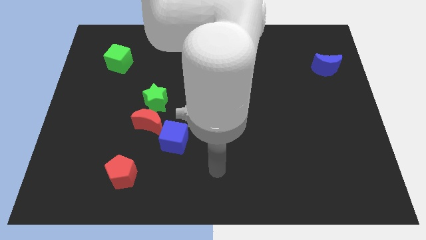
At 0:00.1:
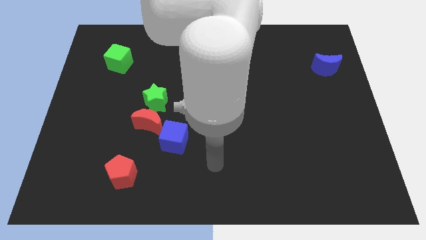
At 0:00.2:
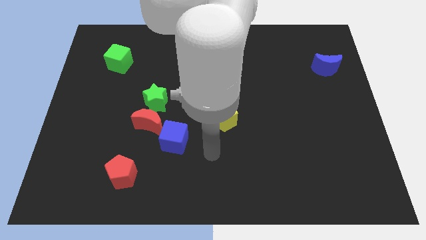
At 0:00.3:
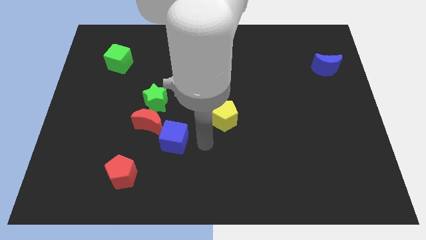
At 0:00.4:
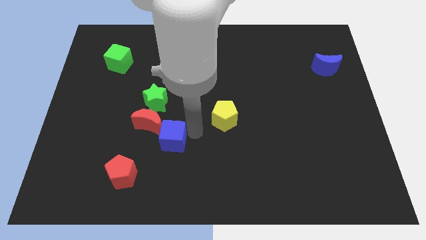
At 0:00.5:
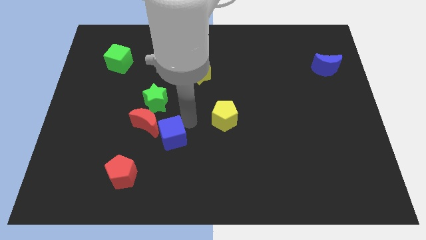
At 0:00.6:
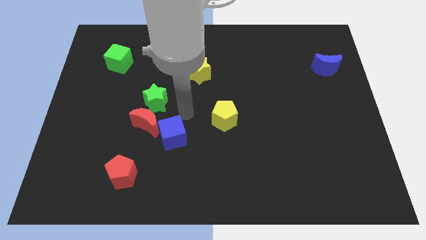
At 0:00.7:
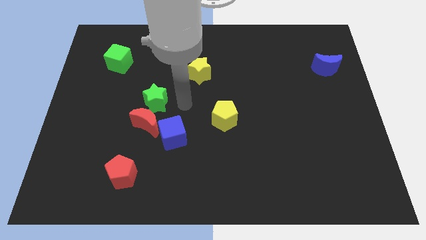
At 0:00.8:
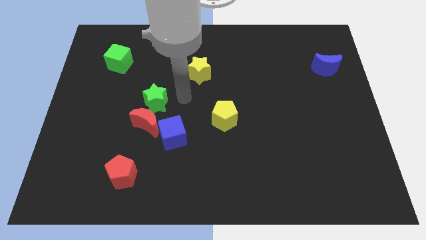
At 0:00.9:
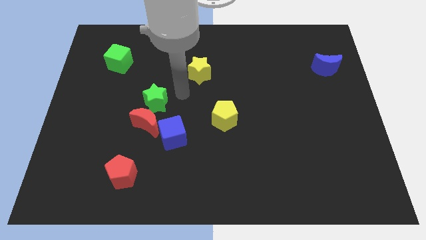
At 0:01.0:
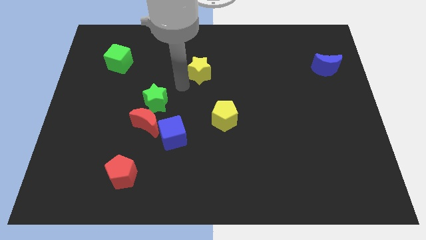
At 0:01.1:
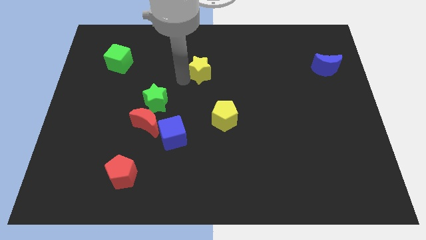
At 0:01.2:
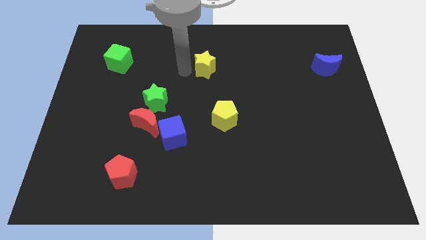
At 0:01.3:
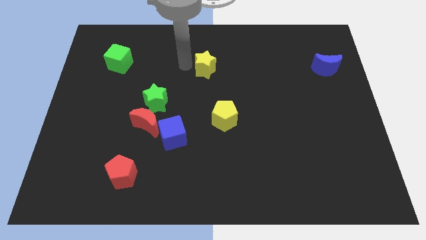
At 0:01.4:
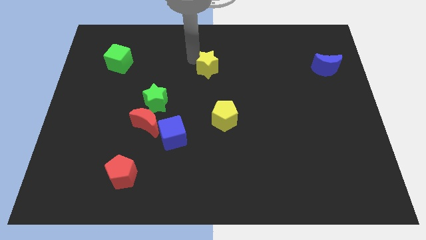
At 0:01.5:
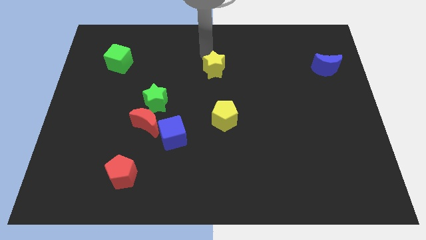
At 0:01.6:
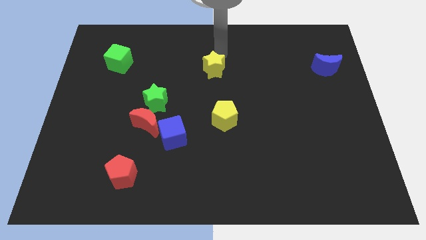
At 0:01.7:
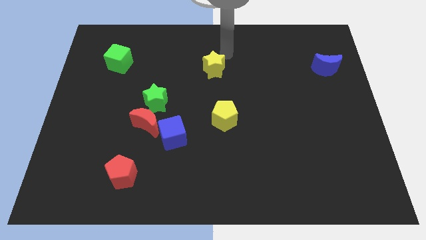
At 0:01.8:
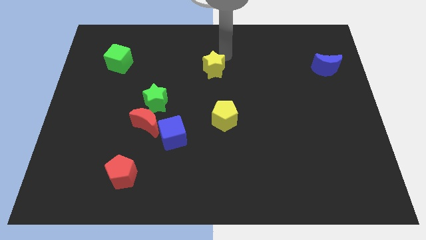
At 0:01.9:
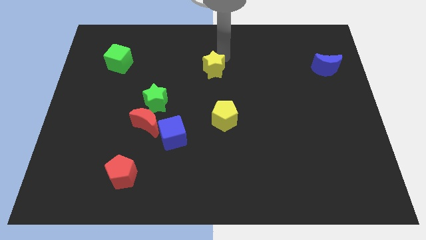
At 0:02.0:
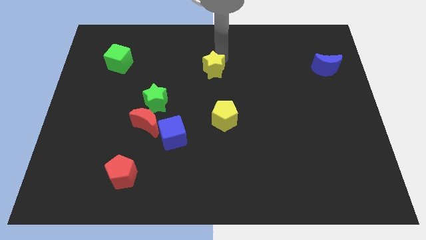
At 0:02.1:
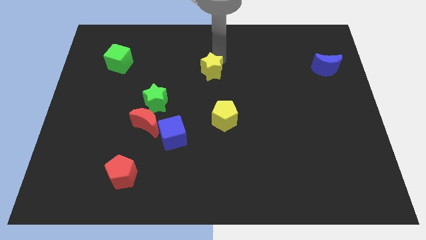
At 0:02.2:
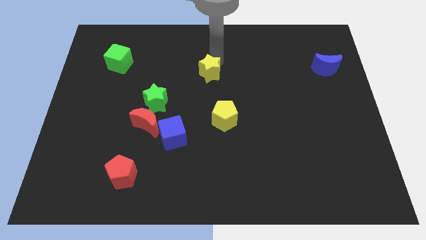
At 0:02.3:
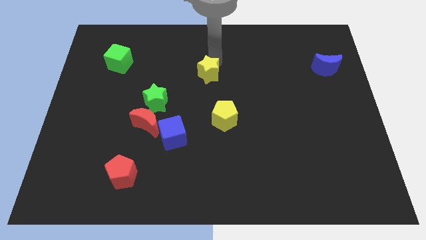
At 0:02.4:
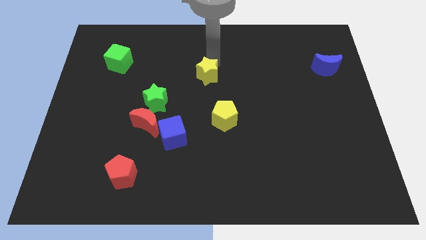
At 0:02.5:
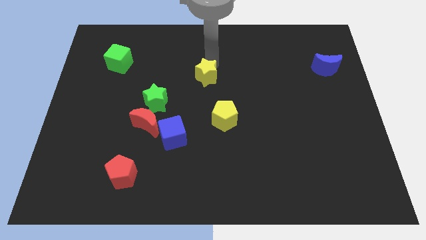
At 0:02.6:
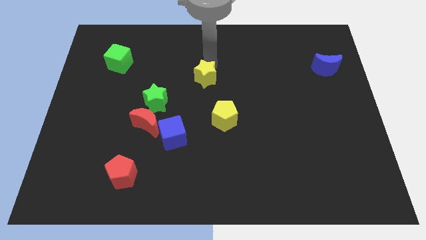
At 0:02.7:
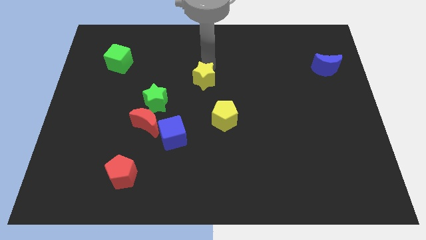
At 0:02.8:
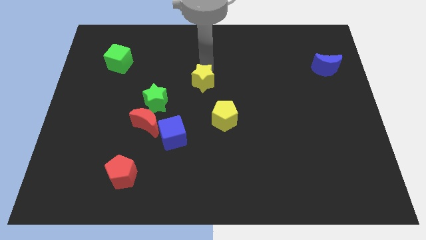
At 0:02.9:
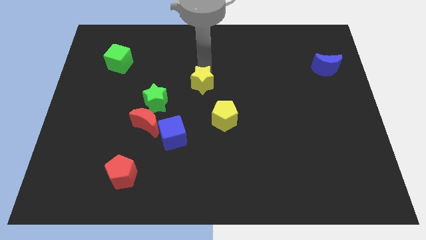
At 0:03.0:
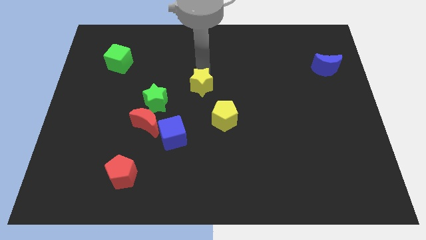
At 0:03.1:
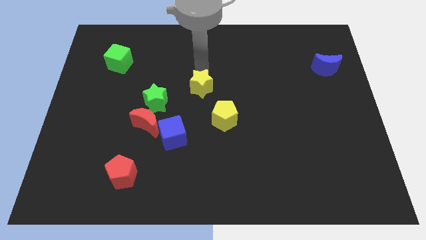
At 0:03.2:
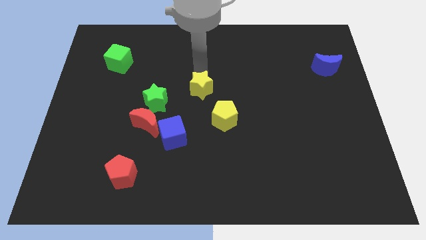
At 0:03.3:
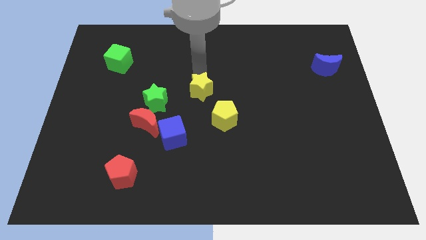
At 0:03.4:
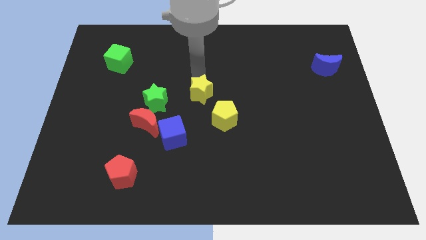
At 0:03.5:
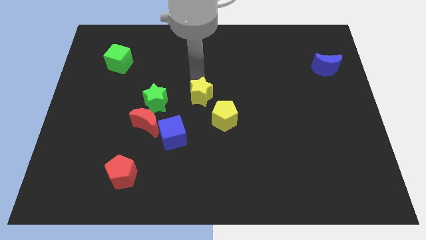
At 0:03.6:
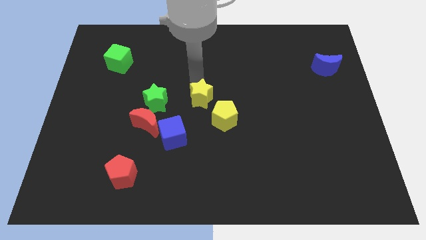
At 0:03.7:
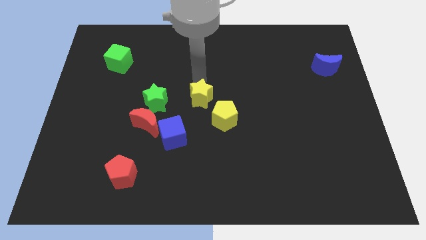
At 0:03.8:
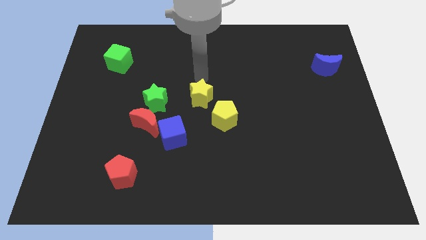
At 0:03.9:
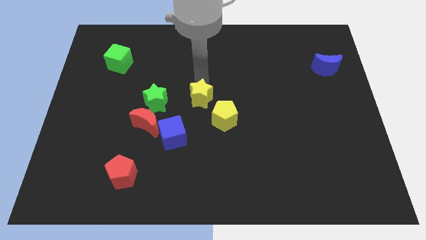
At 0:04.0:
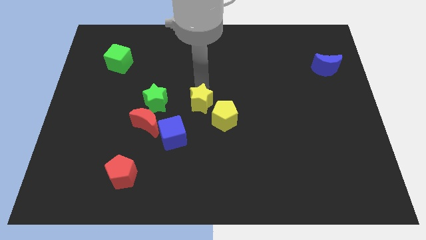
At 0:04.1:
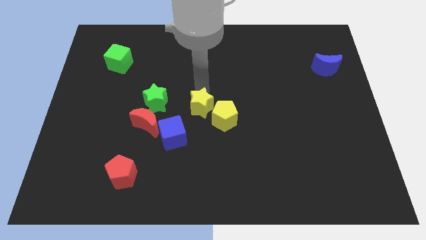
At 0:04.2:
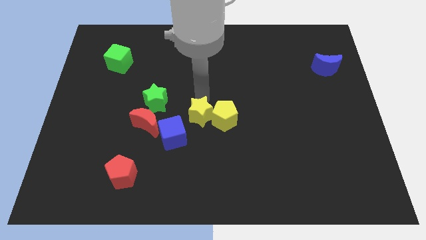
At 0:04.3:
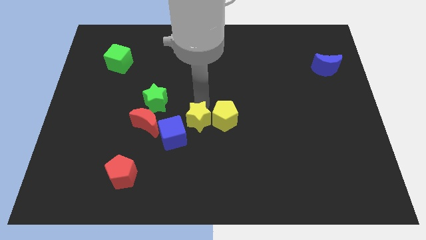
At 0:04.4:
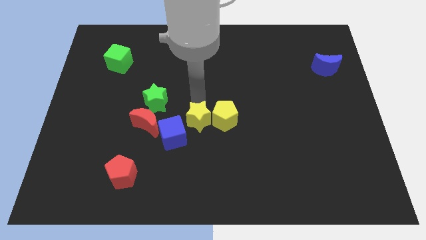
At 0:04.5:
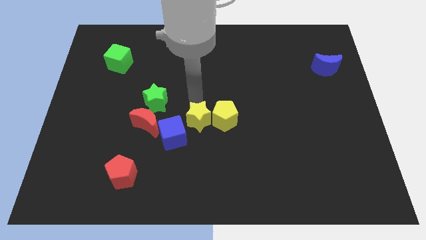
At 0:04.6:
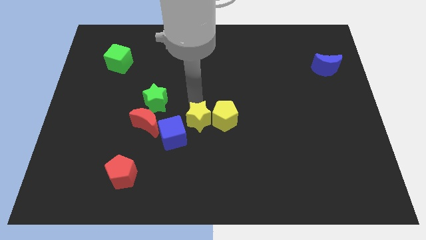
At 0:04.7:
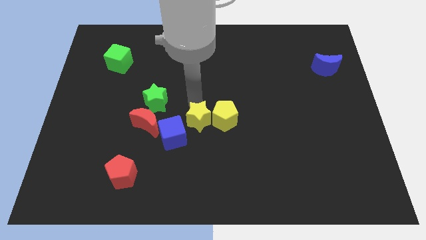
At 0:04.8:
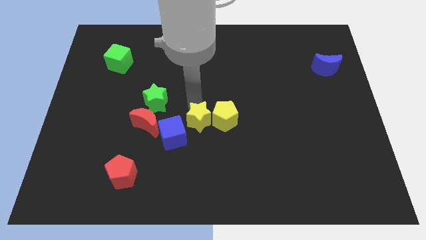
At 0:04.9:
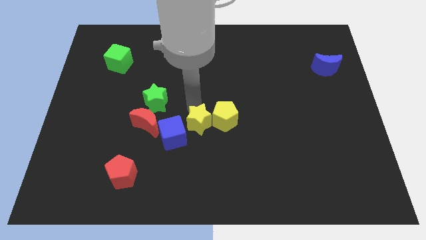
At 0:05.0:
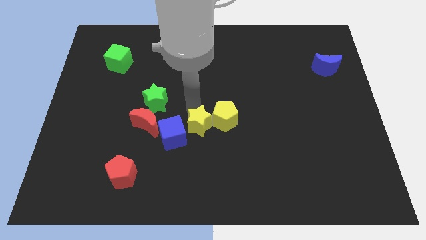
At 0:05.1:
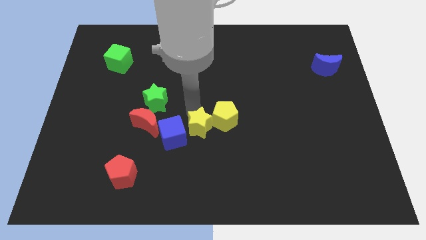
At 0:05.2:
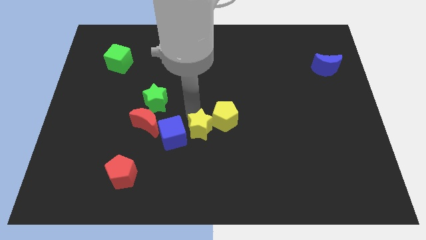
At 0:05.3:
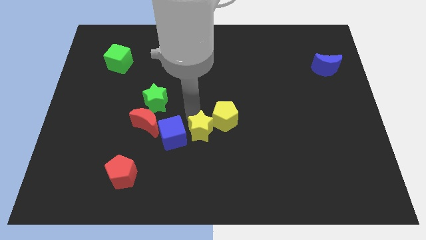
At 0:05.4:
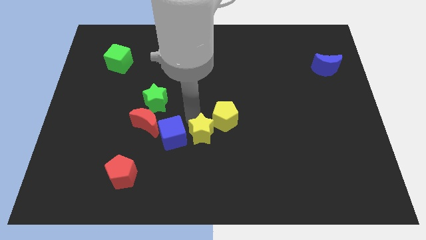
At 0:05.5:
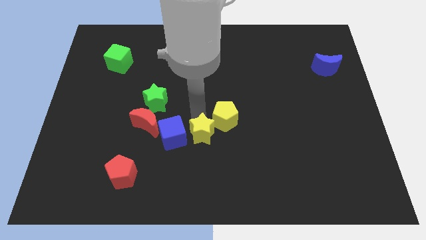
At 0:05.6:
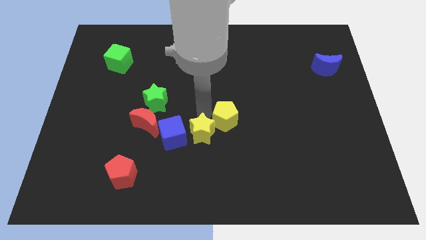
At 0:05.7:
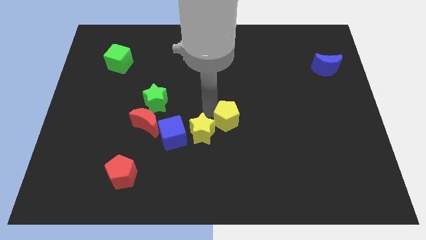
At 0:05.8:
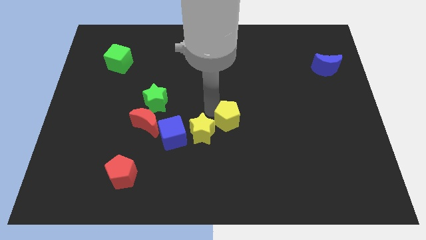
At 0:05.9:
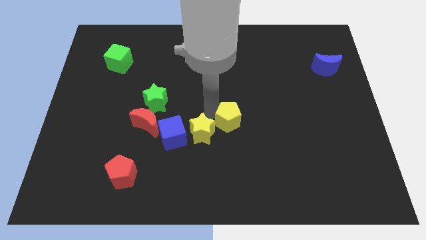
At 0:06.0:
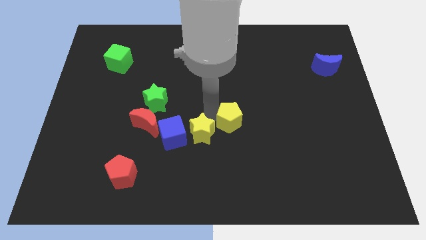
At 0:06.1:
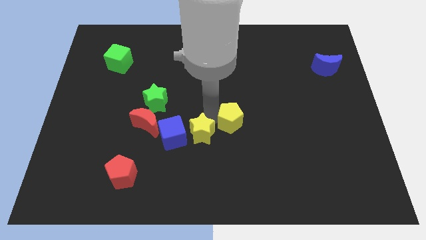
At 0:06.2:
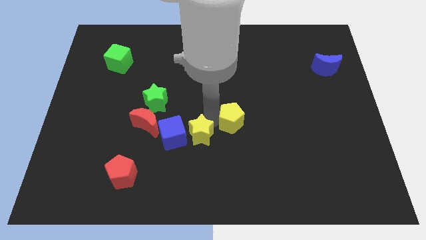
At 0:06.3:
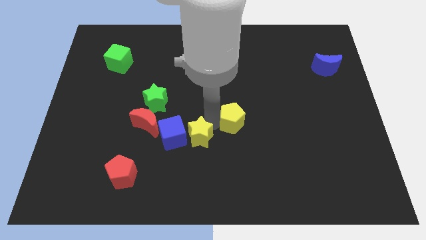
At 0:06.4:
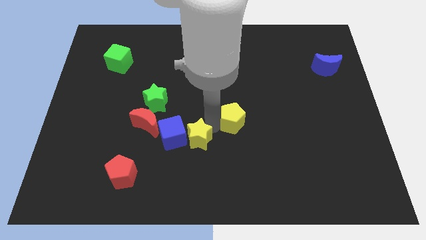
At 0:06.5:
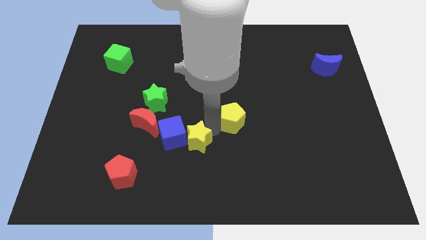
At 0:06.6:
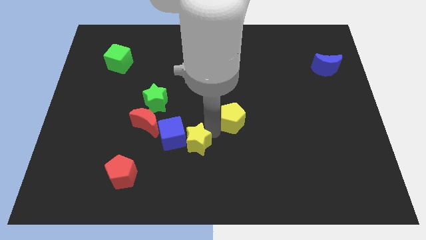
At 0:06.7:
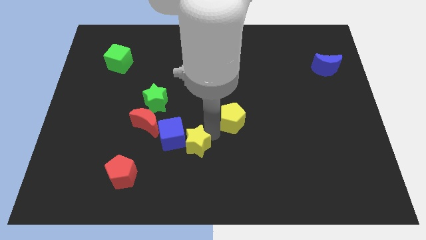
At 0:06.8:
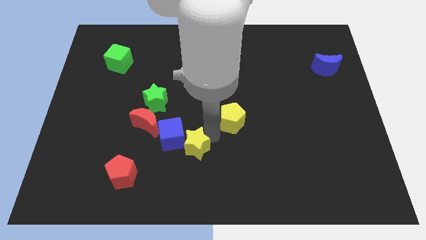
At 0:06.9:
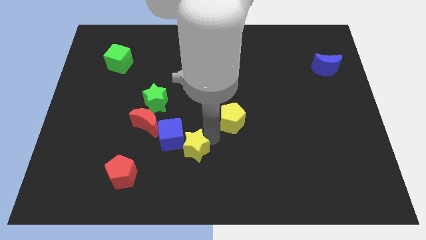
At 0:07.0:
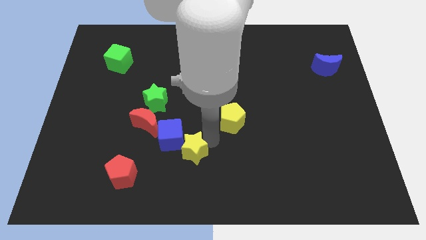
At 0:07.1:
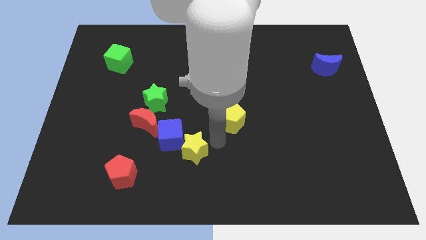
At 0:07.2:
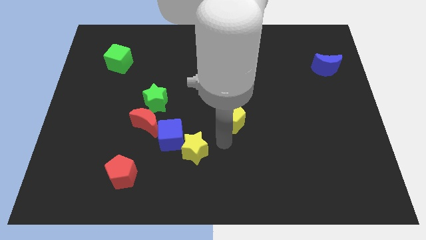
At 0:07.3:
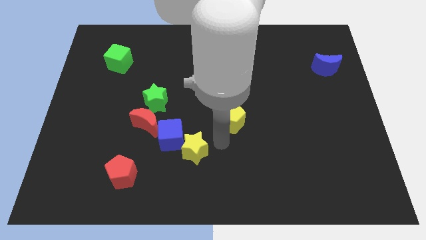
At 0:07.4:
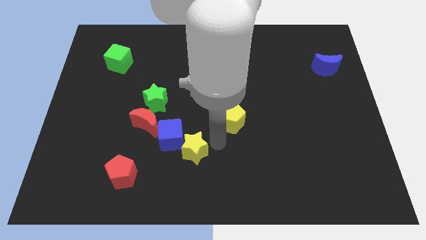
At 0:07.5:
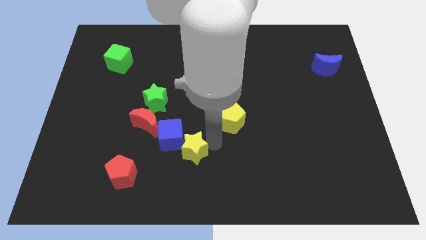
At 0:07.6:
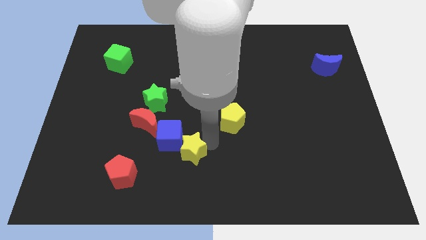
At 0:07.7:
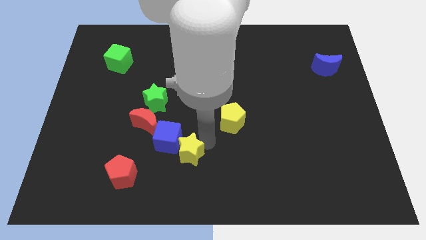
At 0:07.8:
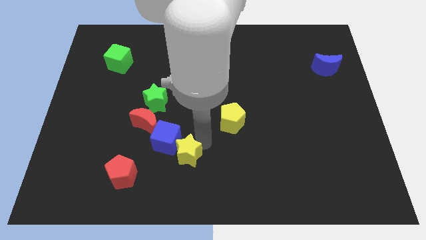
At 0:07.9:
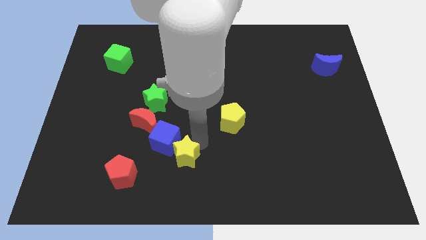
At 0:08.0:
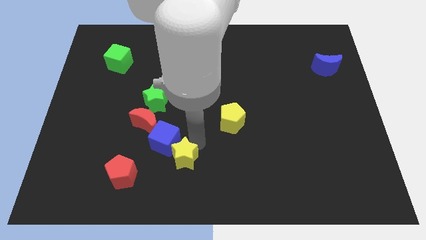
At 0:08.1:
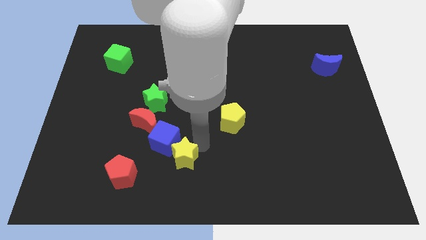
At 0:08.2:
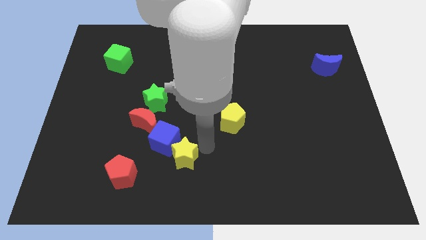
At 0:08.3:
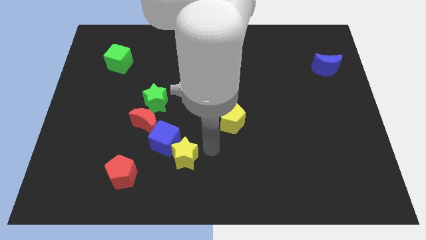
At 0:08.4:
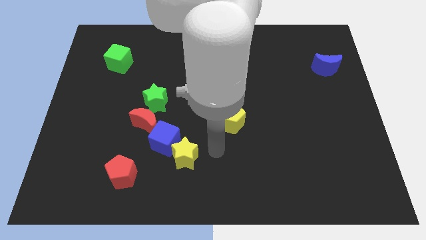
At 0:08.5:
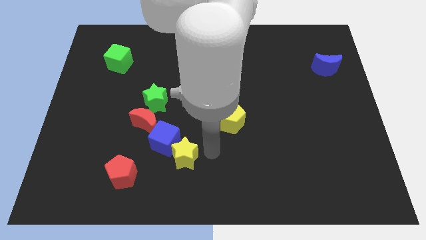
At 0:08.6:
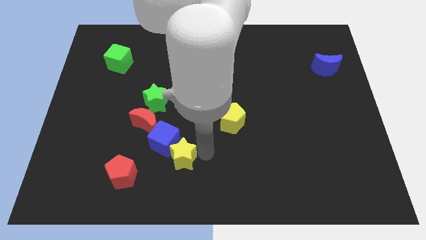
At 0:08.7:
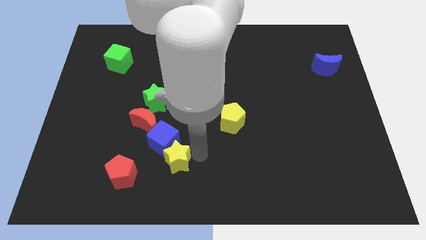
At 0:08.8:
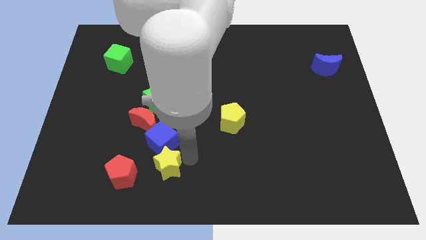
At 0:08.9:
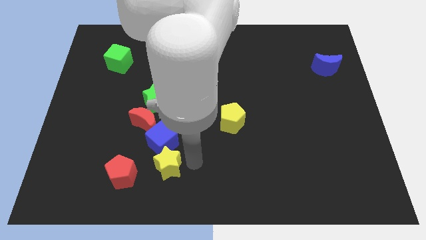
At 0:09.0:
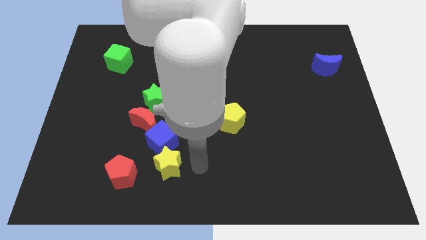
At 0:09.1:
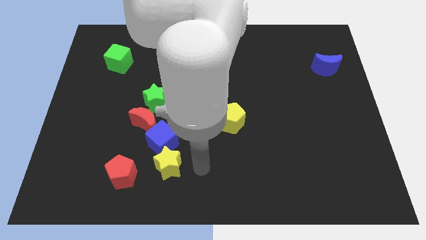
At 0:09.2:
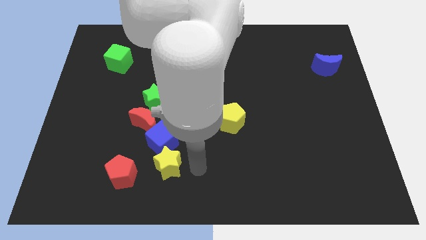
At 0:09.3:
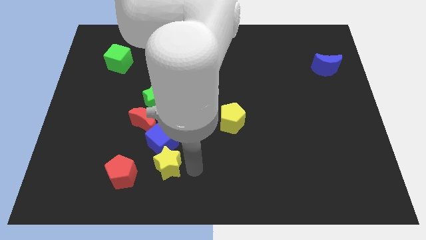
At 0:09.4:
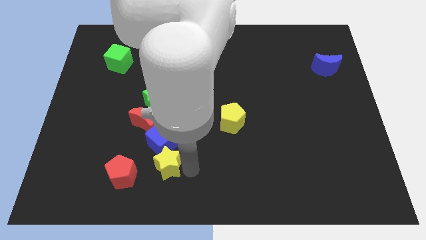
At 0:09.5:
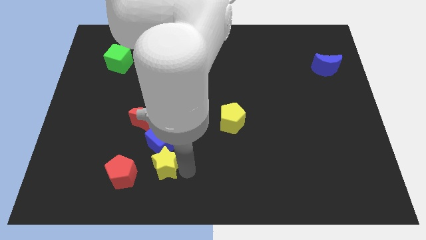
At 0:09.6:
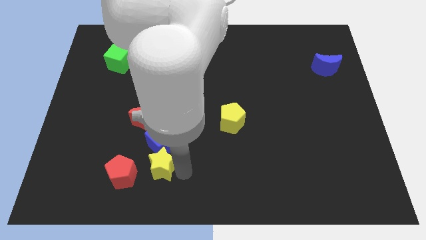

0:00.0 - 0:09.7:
move the yellow star to the bottom left side of the blue cube
